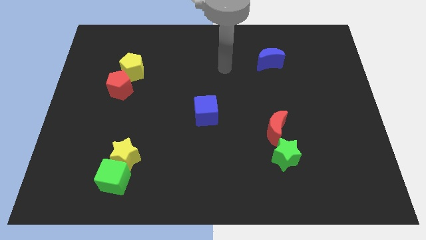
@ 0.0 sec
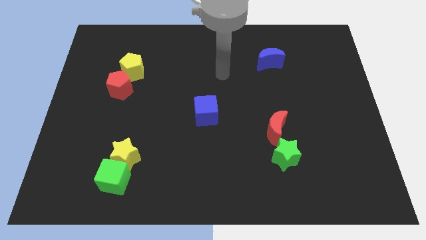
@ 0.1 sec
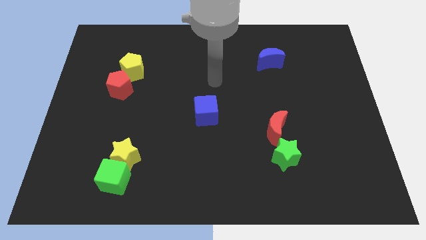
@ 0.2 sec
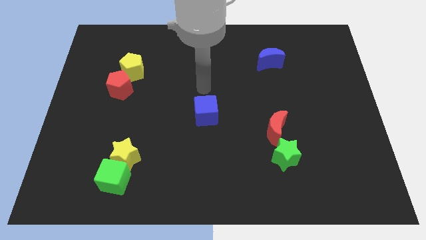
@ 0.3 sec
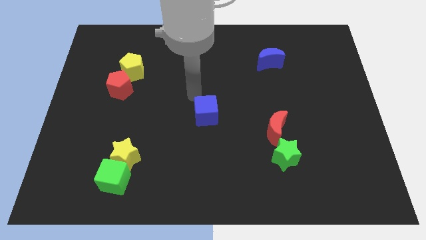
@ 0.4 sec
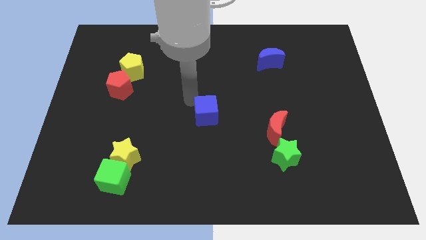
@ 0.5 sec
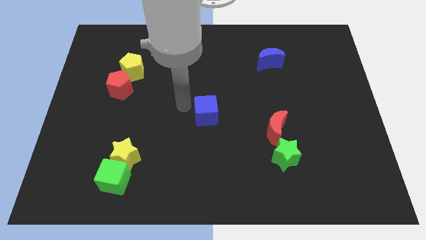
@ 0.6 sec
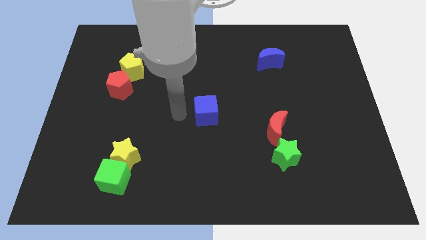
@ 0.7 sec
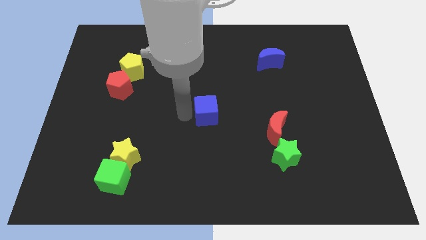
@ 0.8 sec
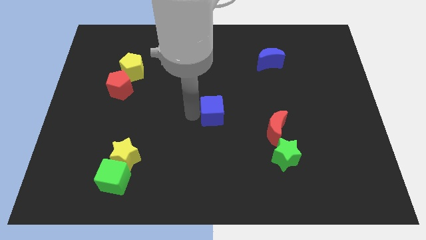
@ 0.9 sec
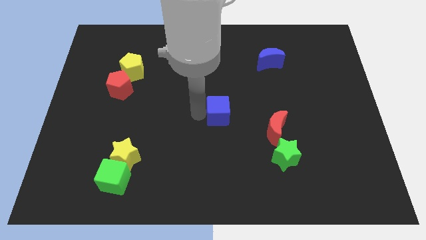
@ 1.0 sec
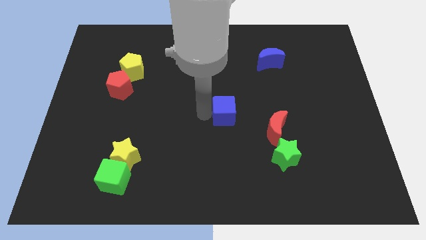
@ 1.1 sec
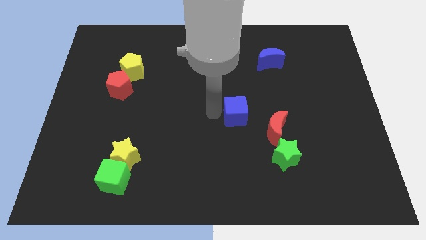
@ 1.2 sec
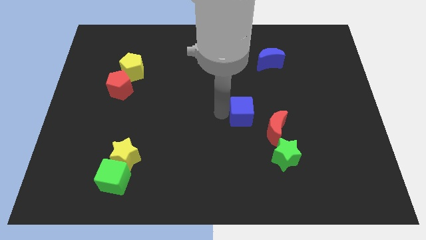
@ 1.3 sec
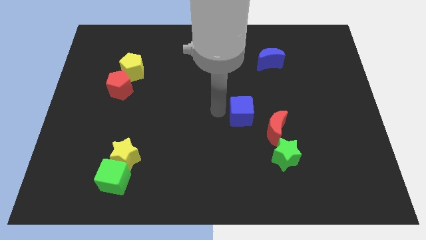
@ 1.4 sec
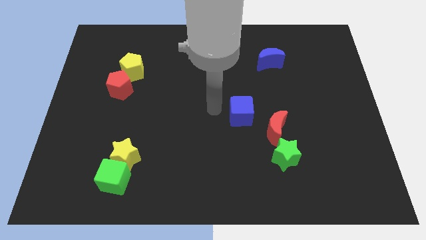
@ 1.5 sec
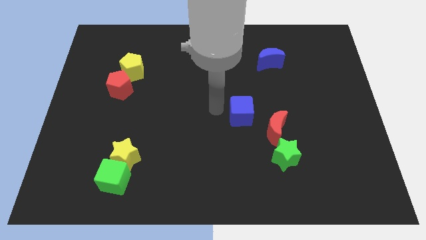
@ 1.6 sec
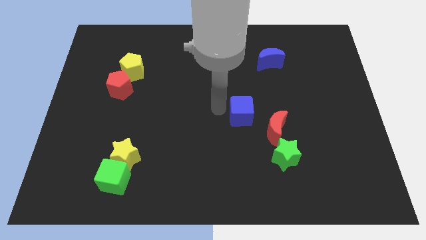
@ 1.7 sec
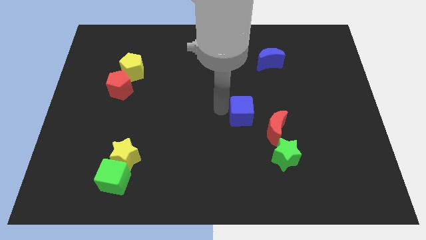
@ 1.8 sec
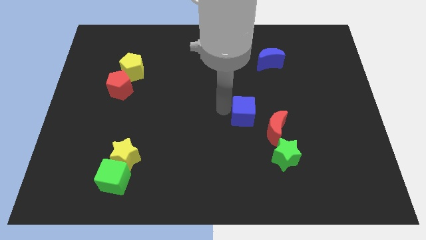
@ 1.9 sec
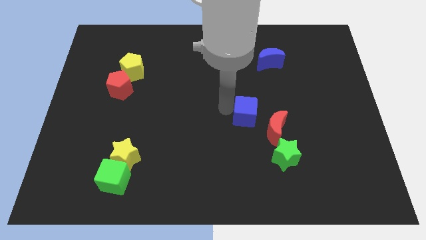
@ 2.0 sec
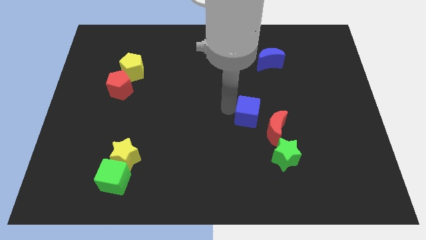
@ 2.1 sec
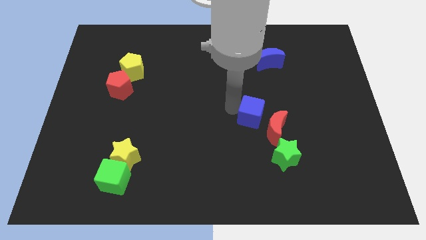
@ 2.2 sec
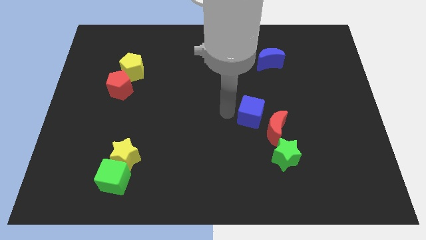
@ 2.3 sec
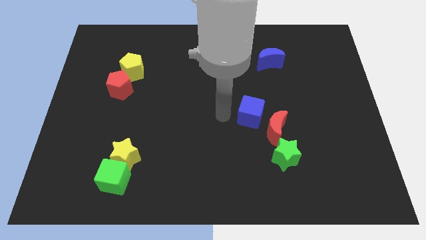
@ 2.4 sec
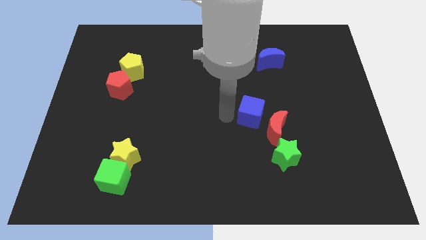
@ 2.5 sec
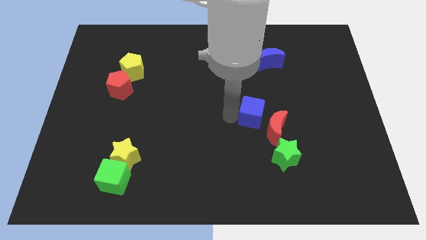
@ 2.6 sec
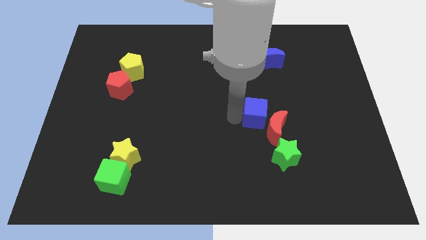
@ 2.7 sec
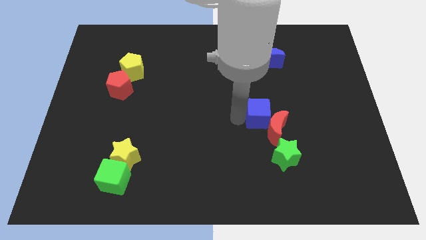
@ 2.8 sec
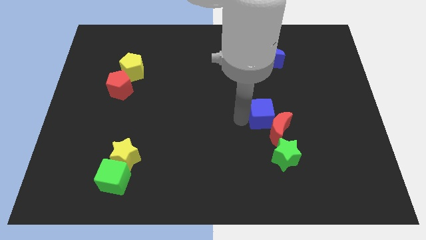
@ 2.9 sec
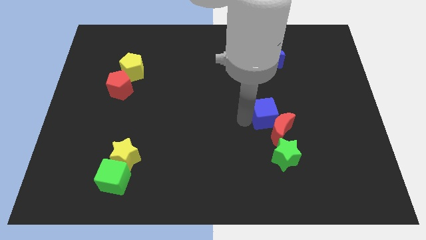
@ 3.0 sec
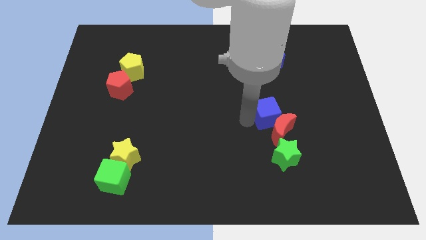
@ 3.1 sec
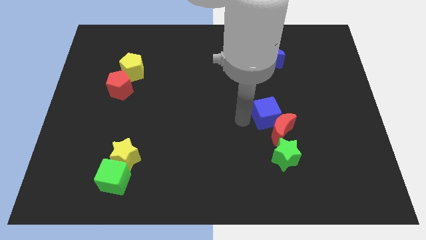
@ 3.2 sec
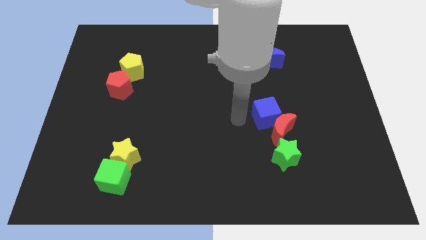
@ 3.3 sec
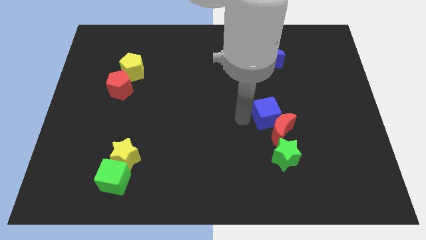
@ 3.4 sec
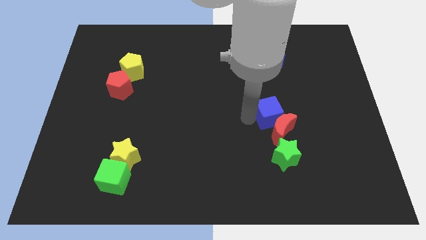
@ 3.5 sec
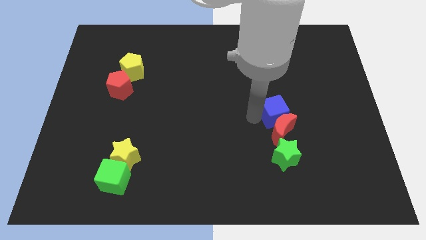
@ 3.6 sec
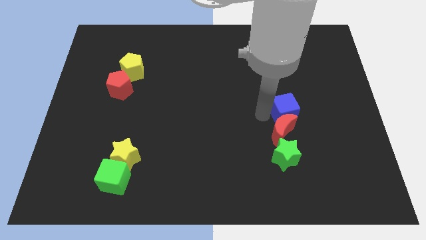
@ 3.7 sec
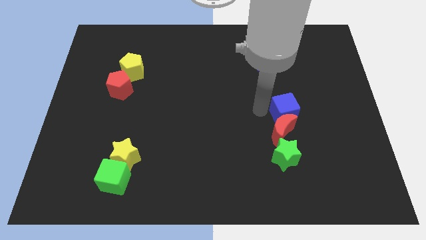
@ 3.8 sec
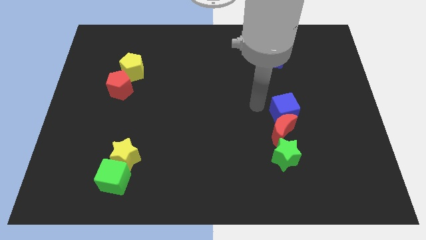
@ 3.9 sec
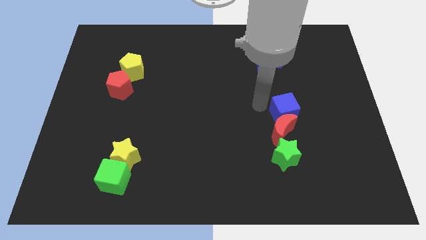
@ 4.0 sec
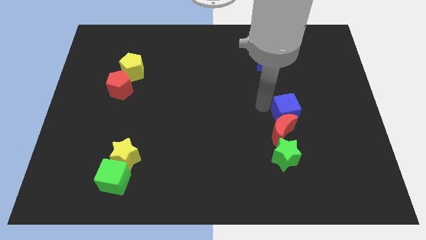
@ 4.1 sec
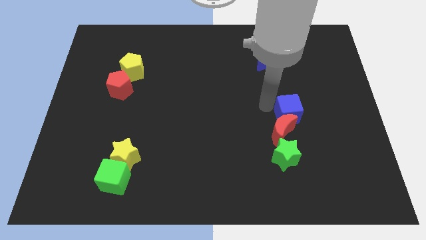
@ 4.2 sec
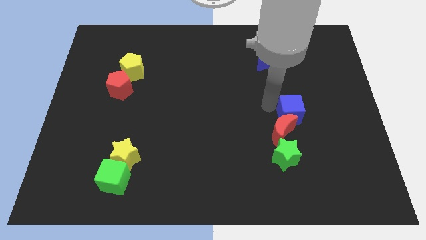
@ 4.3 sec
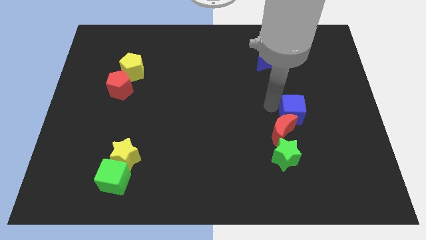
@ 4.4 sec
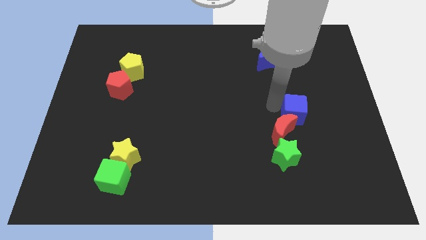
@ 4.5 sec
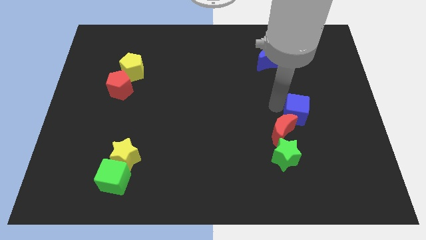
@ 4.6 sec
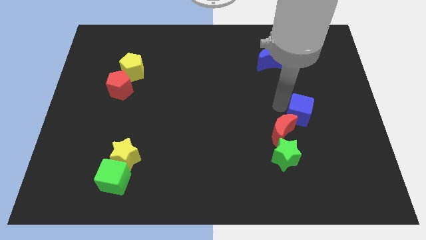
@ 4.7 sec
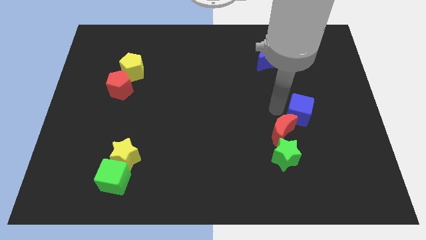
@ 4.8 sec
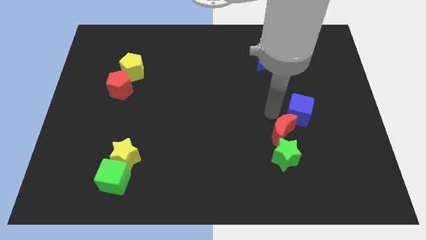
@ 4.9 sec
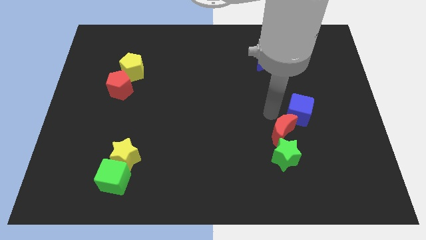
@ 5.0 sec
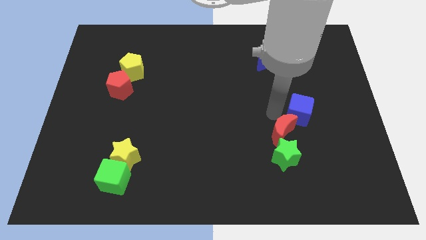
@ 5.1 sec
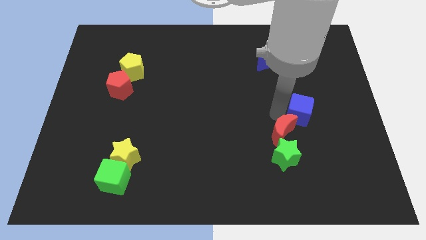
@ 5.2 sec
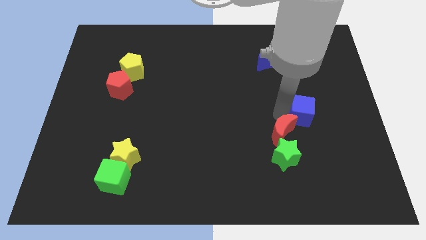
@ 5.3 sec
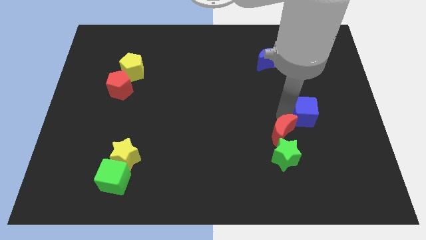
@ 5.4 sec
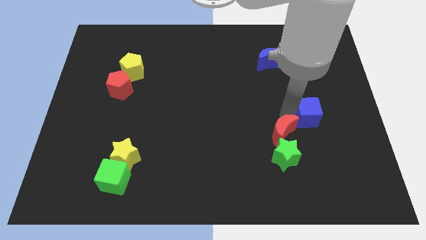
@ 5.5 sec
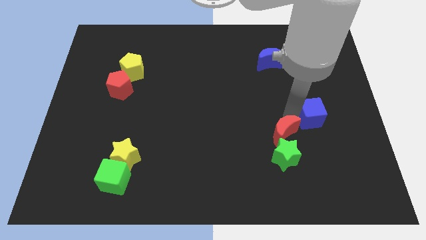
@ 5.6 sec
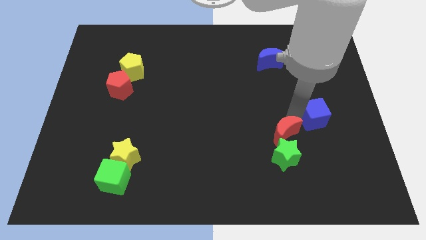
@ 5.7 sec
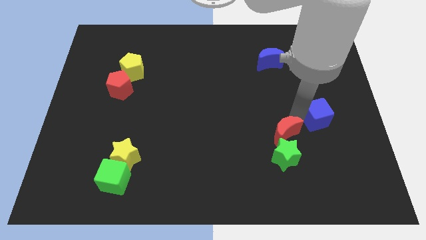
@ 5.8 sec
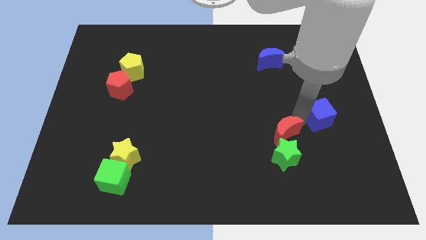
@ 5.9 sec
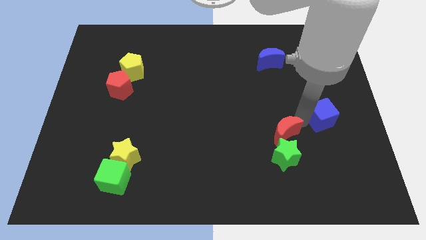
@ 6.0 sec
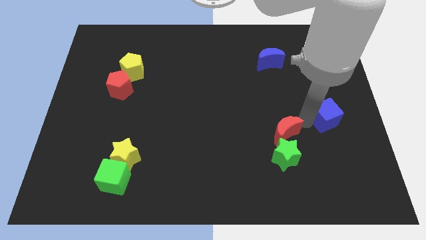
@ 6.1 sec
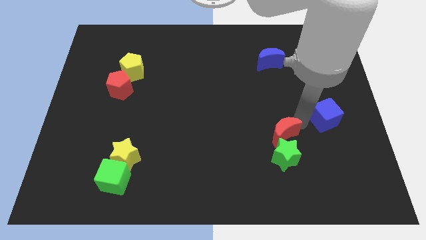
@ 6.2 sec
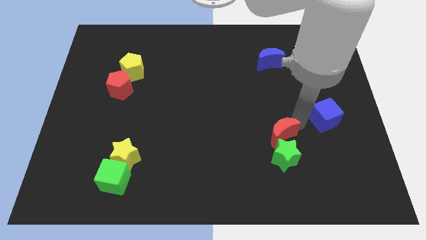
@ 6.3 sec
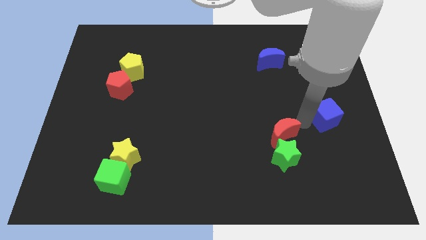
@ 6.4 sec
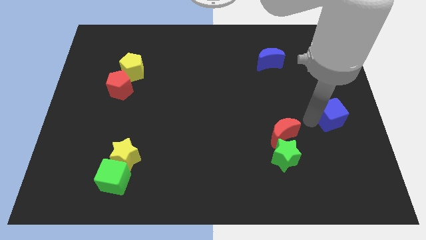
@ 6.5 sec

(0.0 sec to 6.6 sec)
put the blue cube to the right side of the board
